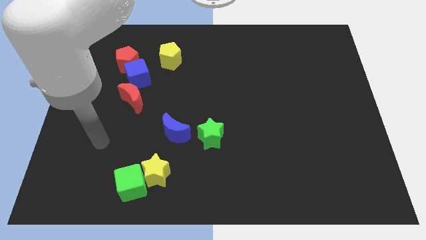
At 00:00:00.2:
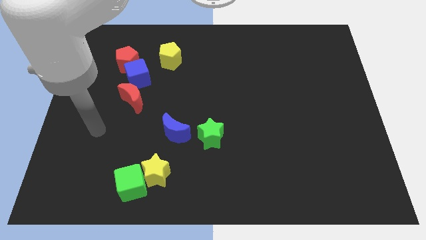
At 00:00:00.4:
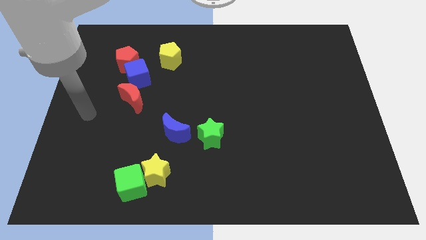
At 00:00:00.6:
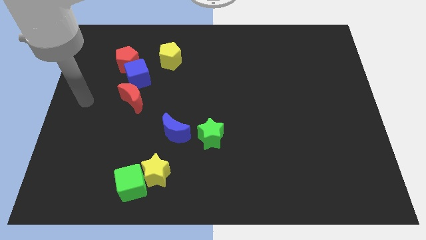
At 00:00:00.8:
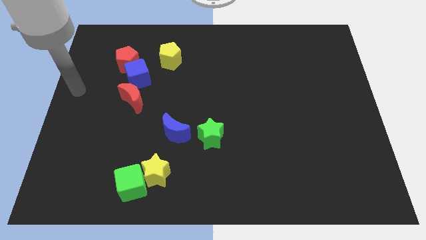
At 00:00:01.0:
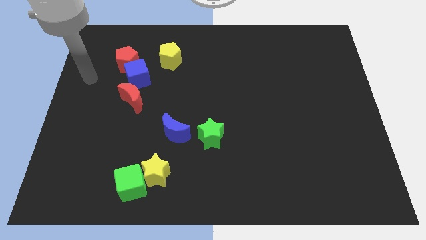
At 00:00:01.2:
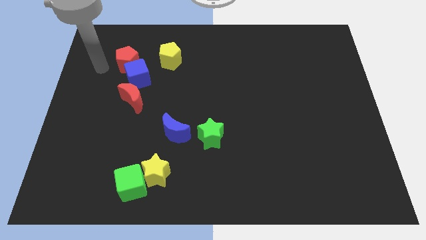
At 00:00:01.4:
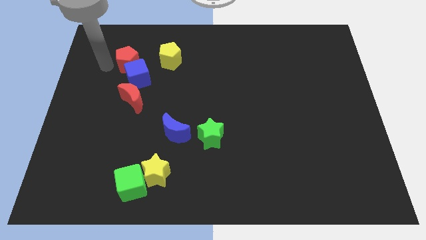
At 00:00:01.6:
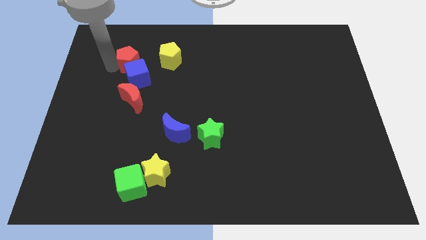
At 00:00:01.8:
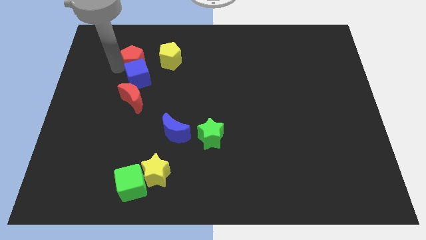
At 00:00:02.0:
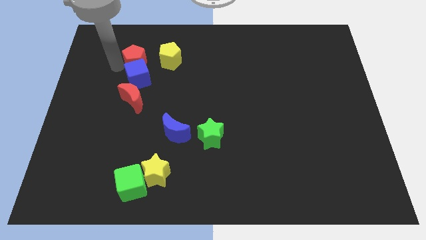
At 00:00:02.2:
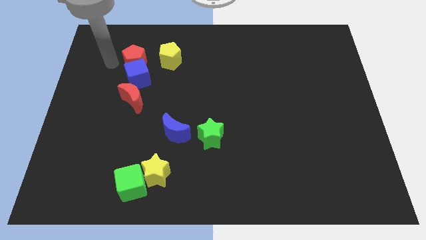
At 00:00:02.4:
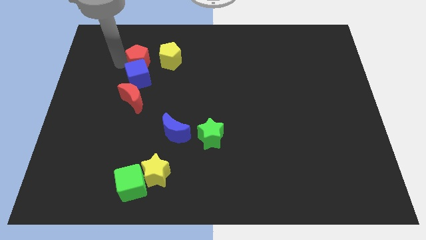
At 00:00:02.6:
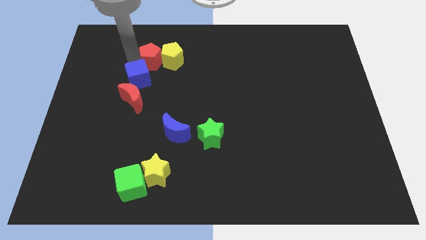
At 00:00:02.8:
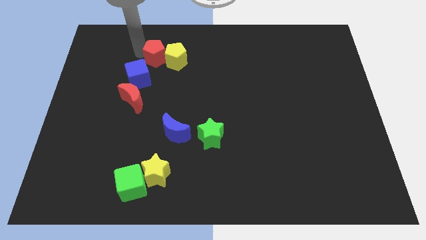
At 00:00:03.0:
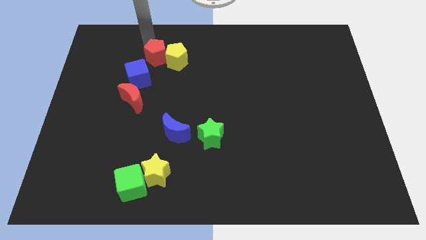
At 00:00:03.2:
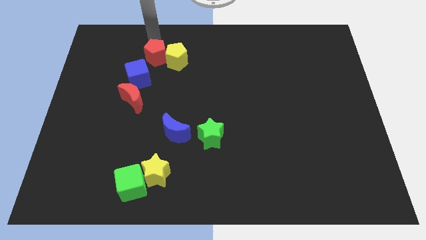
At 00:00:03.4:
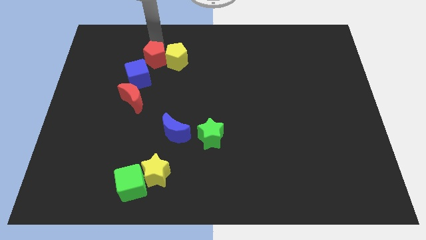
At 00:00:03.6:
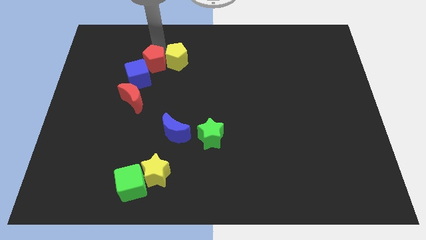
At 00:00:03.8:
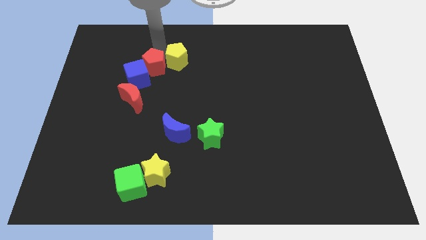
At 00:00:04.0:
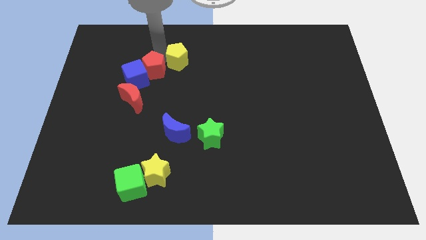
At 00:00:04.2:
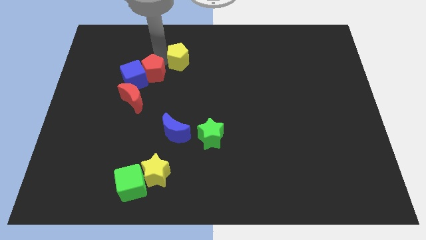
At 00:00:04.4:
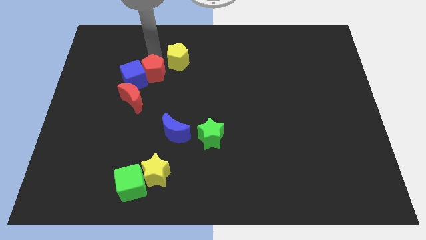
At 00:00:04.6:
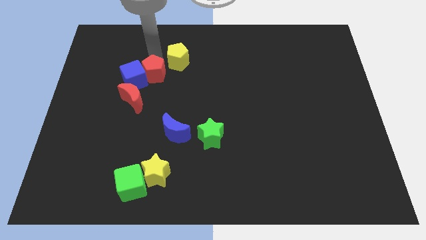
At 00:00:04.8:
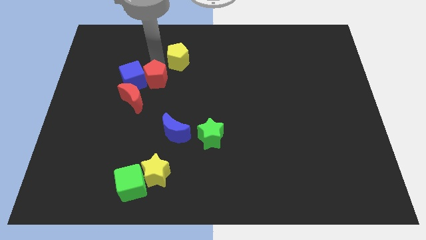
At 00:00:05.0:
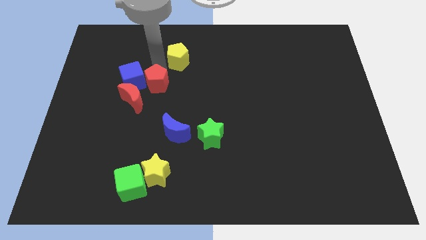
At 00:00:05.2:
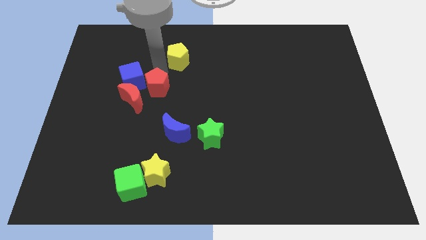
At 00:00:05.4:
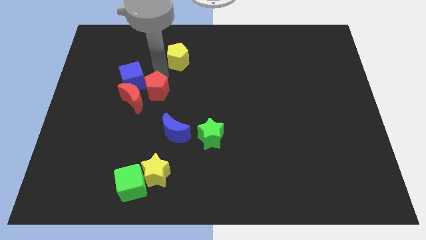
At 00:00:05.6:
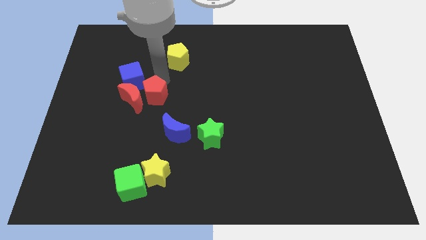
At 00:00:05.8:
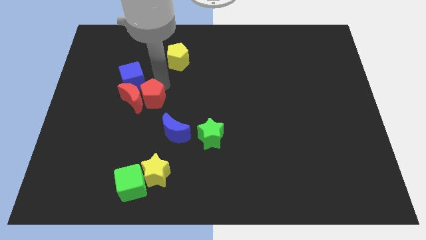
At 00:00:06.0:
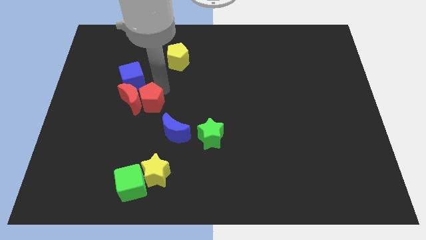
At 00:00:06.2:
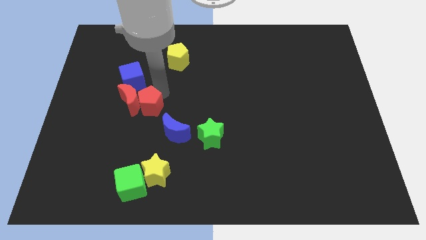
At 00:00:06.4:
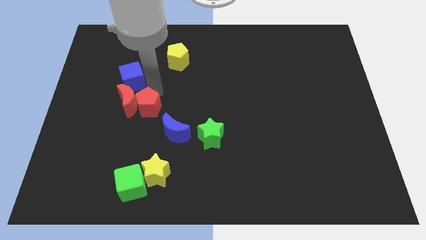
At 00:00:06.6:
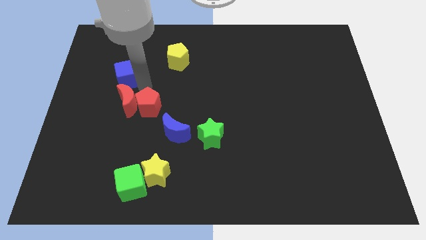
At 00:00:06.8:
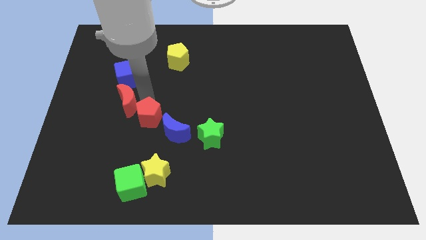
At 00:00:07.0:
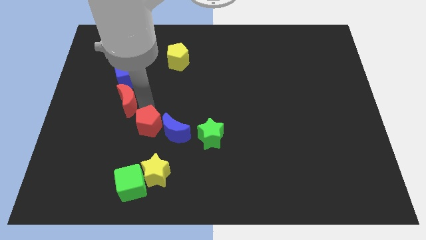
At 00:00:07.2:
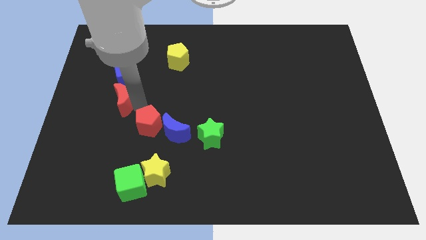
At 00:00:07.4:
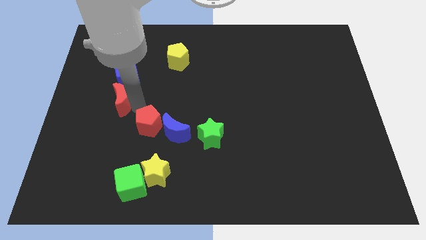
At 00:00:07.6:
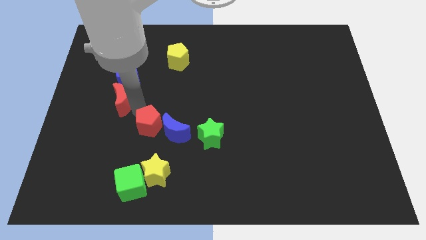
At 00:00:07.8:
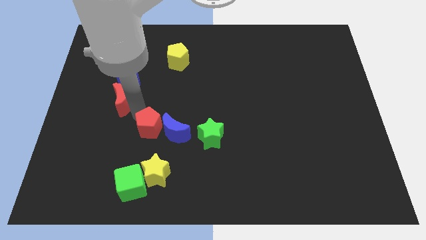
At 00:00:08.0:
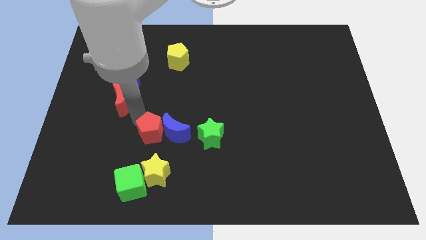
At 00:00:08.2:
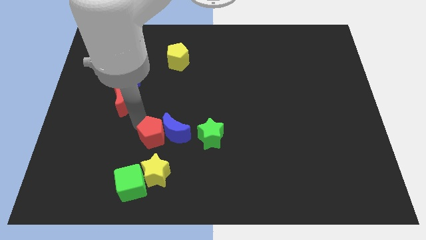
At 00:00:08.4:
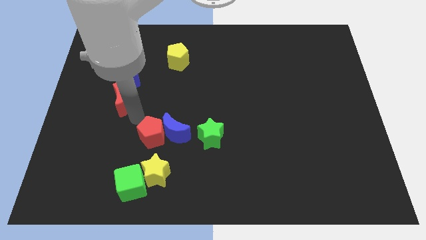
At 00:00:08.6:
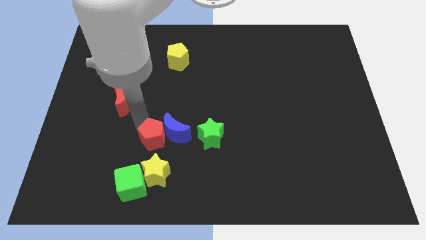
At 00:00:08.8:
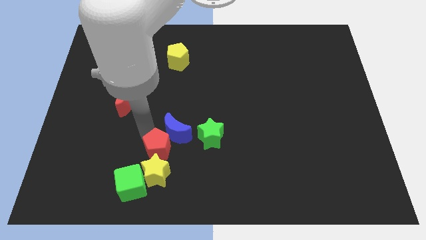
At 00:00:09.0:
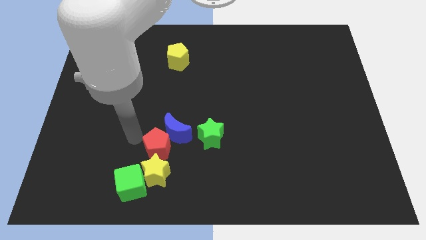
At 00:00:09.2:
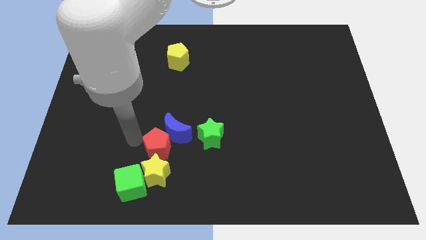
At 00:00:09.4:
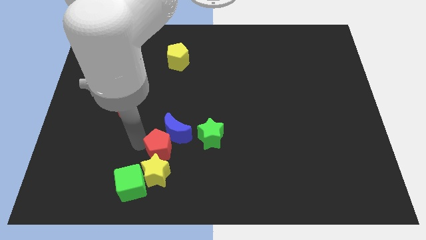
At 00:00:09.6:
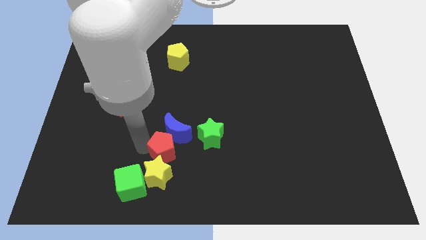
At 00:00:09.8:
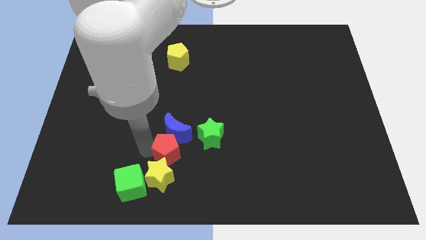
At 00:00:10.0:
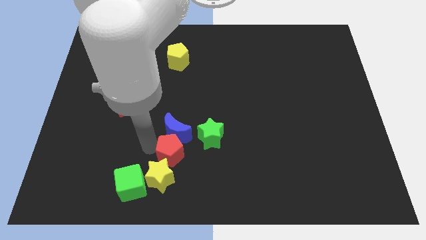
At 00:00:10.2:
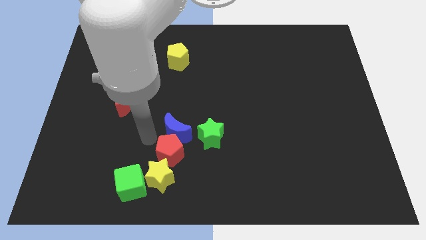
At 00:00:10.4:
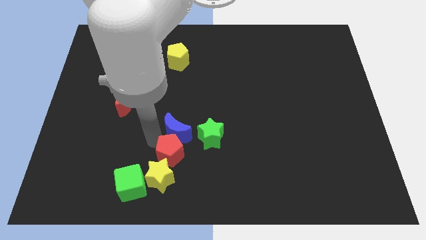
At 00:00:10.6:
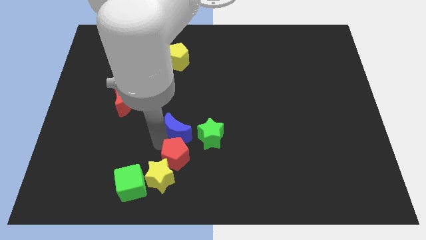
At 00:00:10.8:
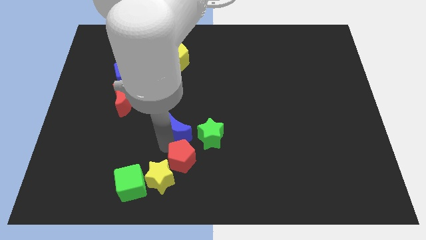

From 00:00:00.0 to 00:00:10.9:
slide the red pentagon to the bottom side

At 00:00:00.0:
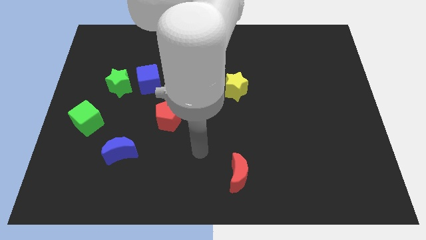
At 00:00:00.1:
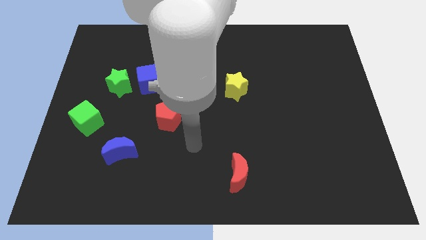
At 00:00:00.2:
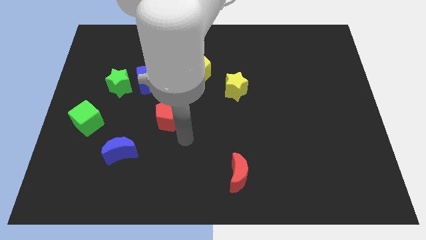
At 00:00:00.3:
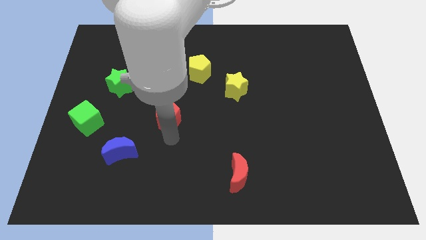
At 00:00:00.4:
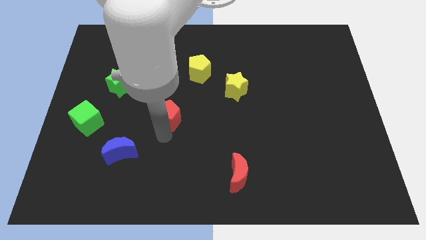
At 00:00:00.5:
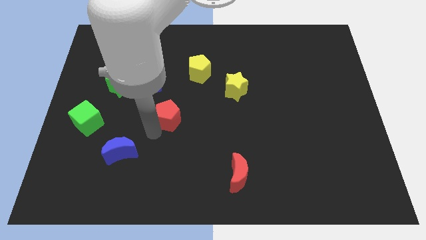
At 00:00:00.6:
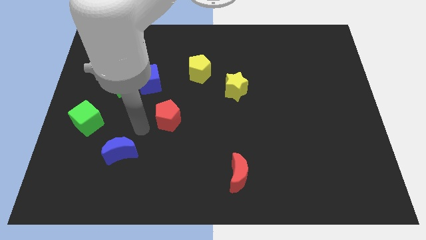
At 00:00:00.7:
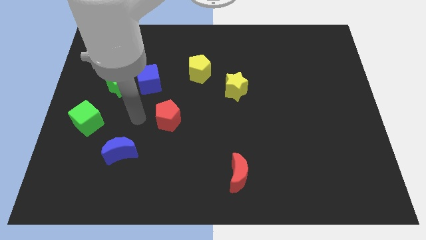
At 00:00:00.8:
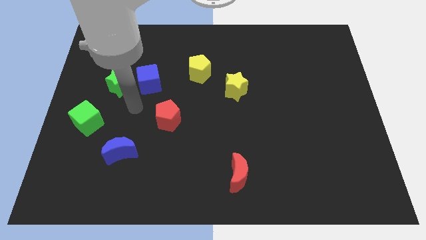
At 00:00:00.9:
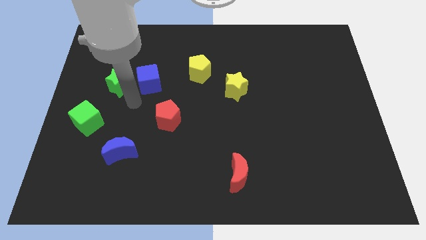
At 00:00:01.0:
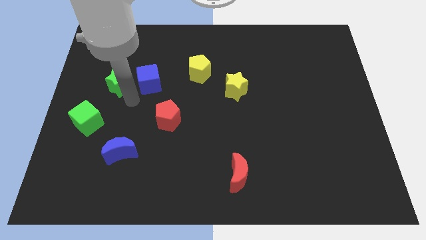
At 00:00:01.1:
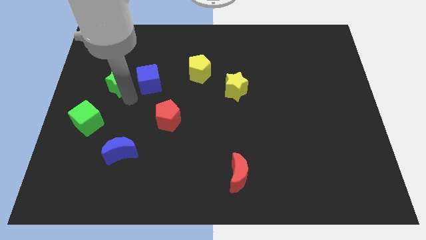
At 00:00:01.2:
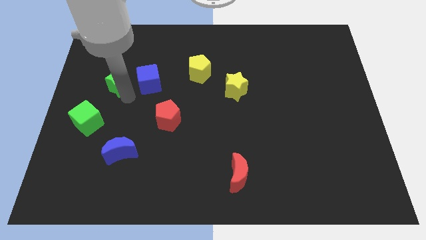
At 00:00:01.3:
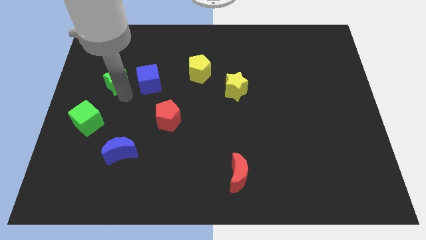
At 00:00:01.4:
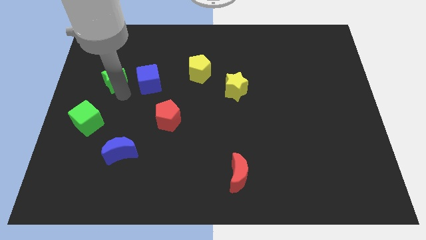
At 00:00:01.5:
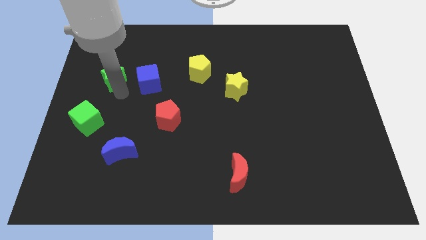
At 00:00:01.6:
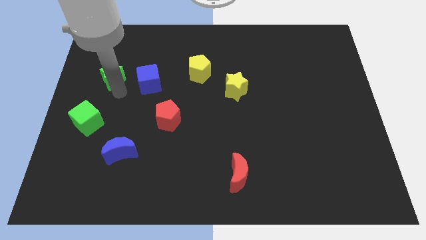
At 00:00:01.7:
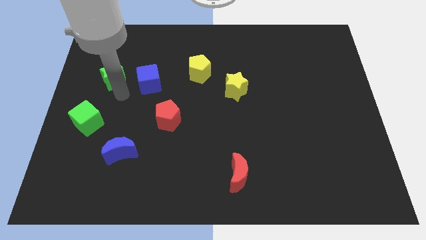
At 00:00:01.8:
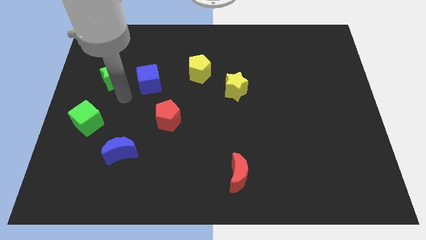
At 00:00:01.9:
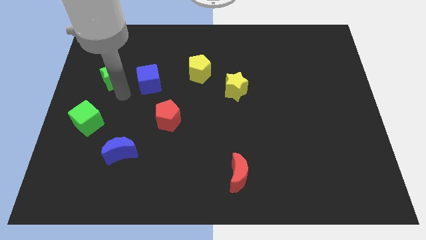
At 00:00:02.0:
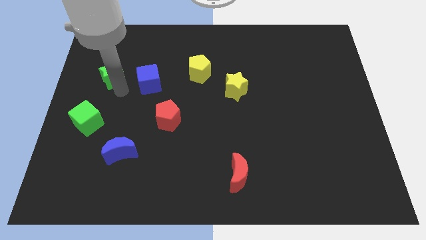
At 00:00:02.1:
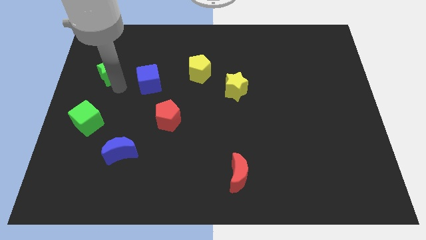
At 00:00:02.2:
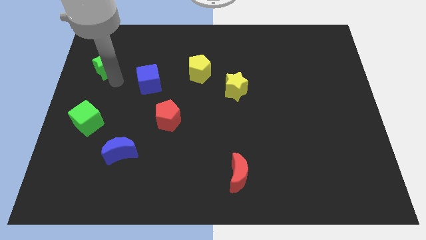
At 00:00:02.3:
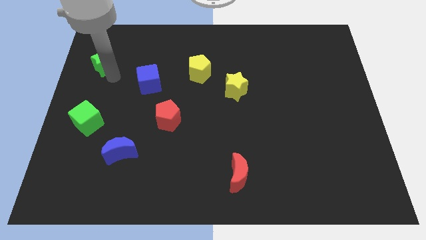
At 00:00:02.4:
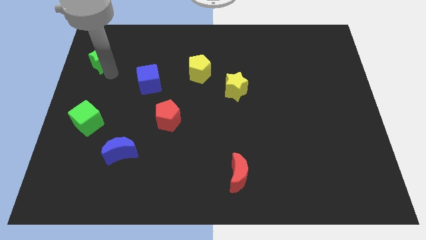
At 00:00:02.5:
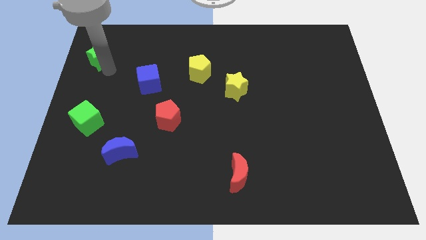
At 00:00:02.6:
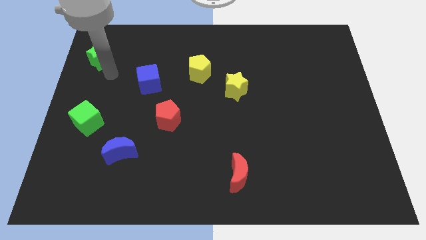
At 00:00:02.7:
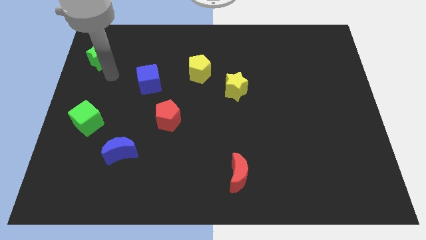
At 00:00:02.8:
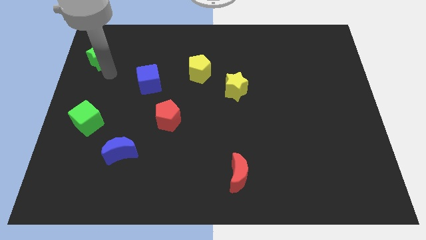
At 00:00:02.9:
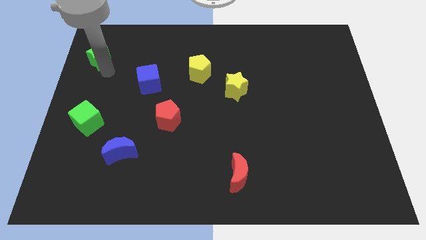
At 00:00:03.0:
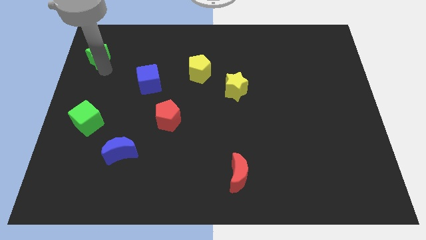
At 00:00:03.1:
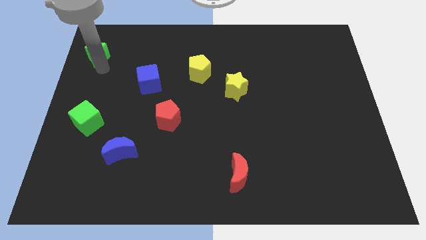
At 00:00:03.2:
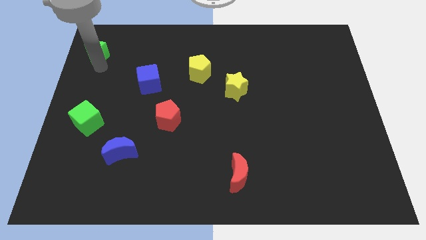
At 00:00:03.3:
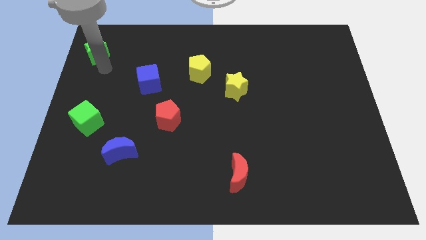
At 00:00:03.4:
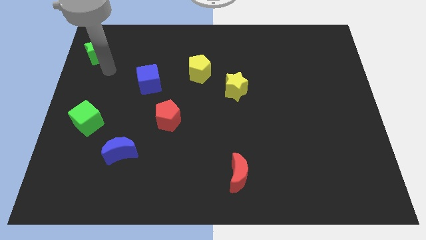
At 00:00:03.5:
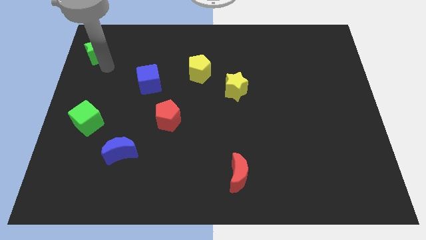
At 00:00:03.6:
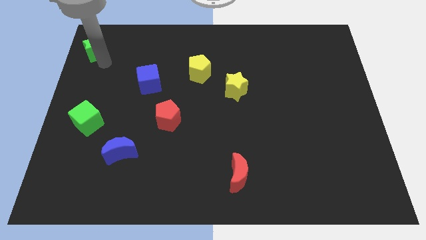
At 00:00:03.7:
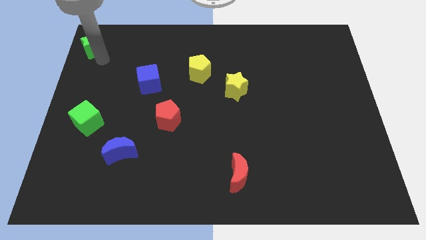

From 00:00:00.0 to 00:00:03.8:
push the green star to the upper left corner
